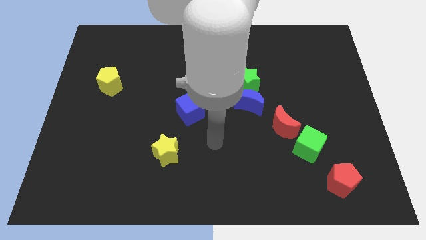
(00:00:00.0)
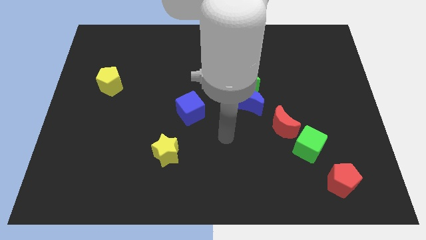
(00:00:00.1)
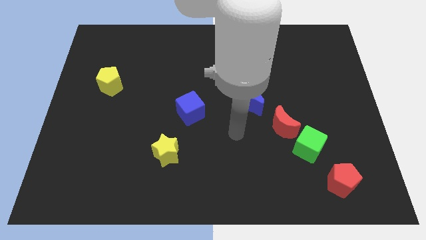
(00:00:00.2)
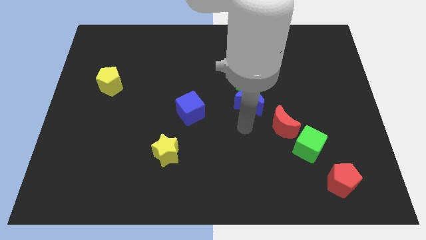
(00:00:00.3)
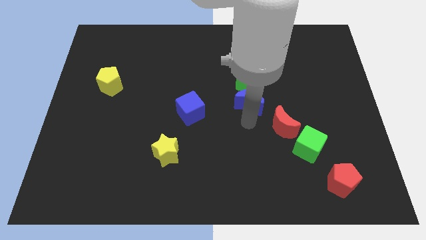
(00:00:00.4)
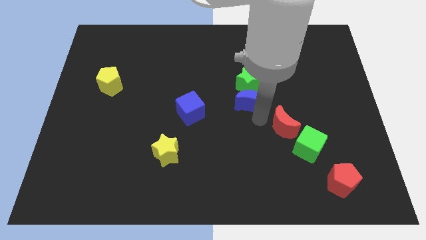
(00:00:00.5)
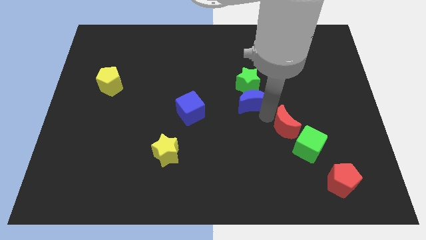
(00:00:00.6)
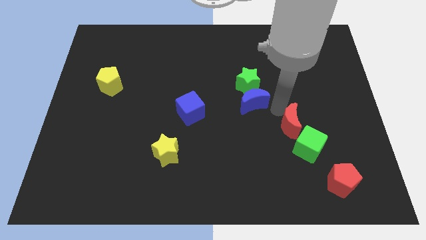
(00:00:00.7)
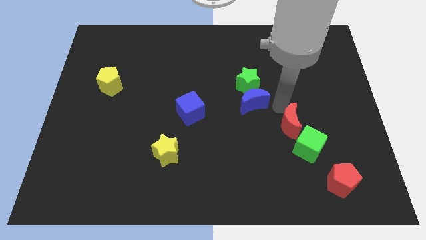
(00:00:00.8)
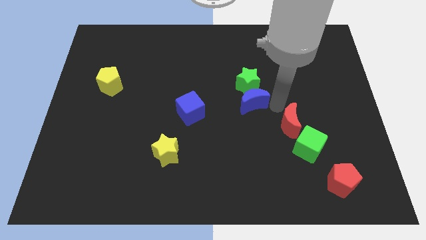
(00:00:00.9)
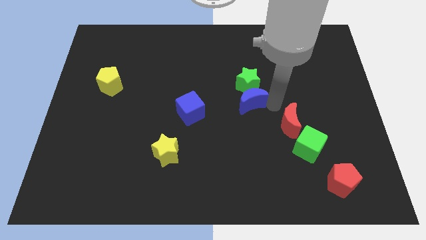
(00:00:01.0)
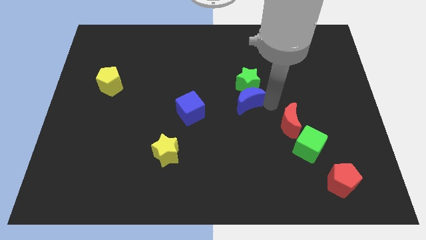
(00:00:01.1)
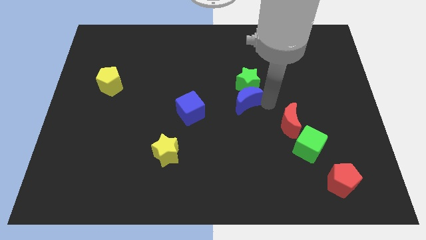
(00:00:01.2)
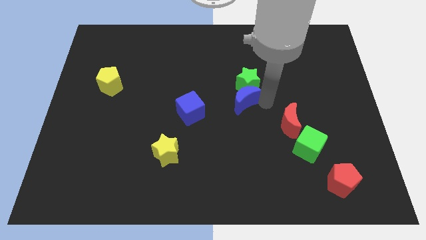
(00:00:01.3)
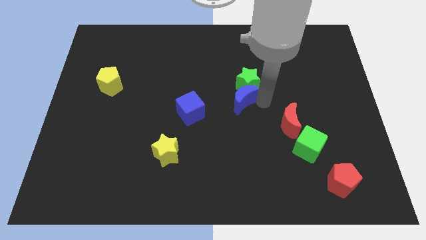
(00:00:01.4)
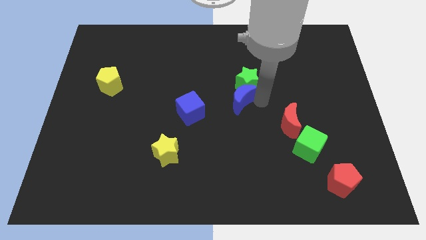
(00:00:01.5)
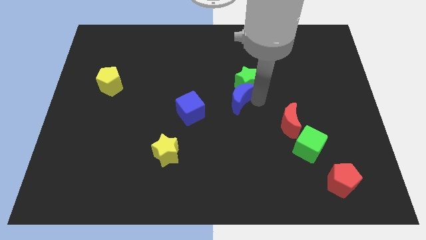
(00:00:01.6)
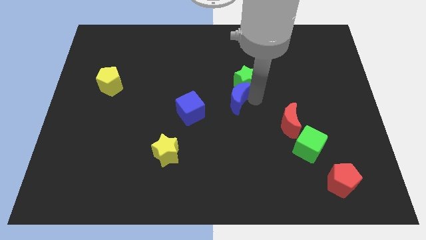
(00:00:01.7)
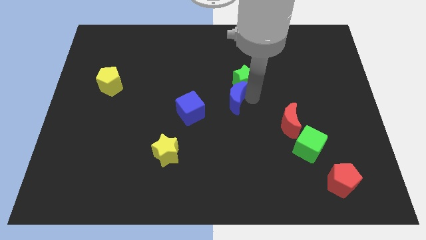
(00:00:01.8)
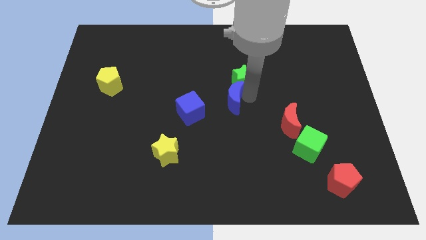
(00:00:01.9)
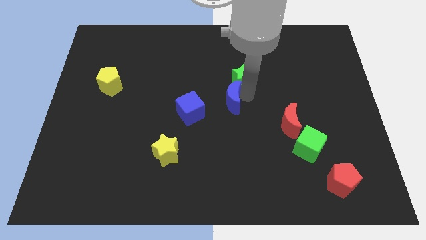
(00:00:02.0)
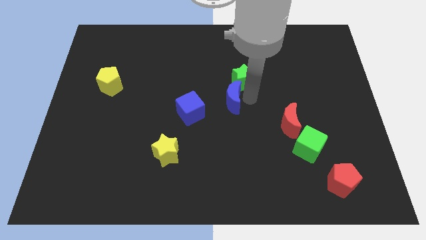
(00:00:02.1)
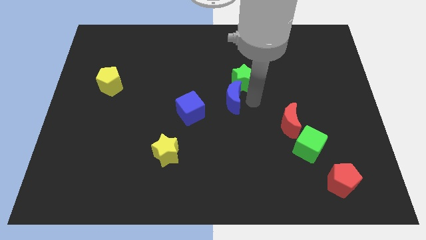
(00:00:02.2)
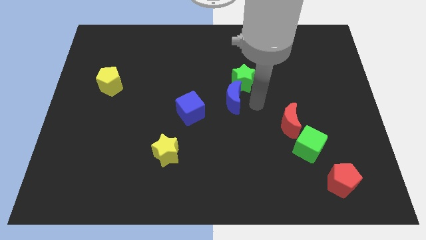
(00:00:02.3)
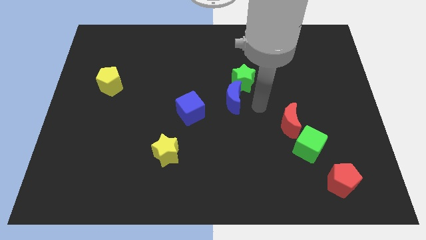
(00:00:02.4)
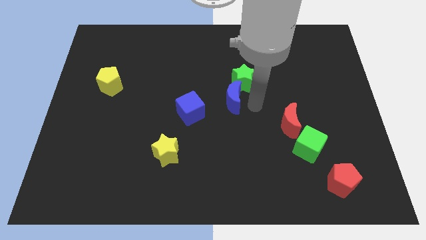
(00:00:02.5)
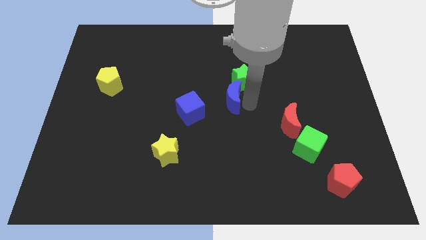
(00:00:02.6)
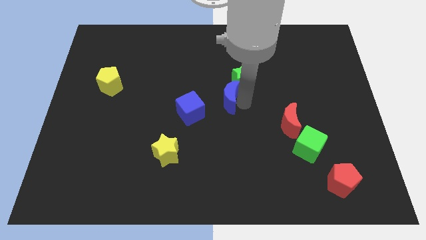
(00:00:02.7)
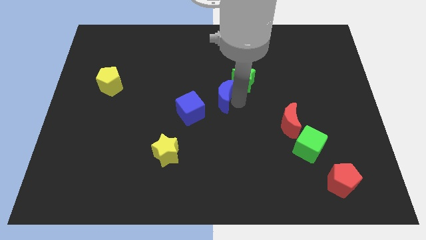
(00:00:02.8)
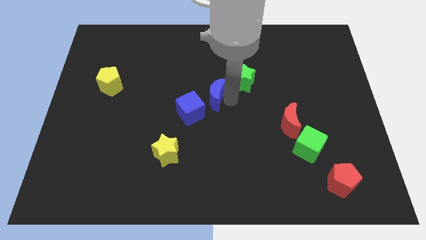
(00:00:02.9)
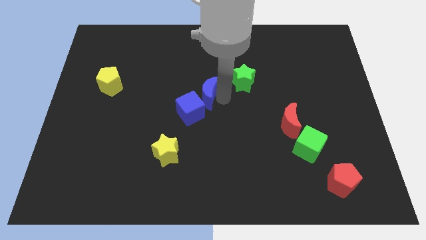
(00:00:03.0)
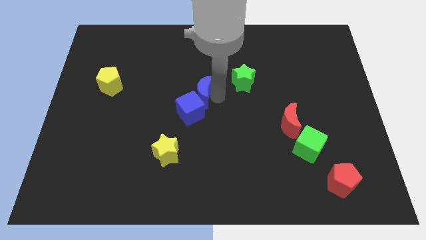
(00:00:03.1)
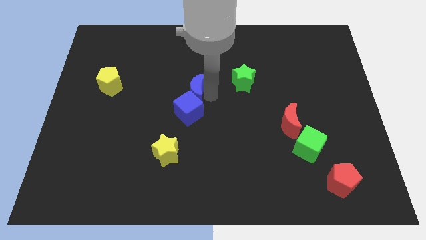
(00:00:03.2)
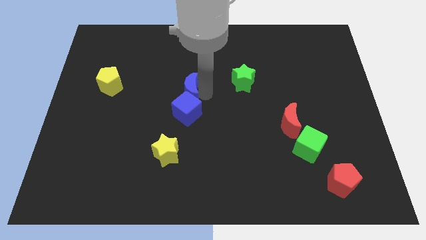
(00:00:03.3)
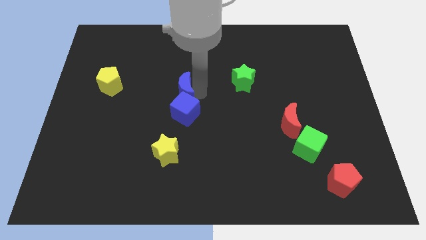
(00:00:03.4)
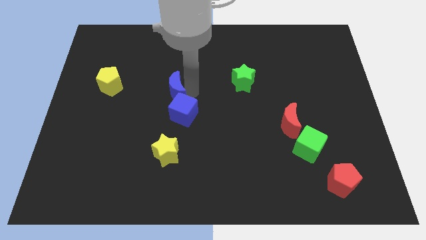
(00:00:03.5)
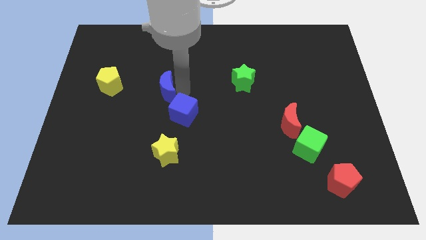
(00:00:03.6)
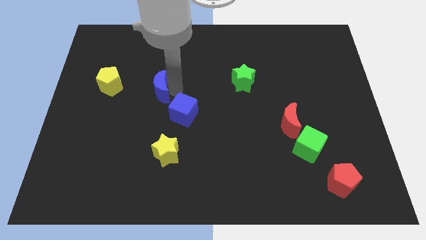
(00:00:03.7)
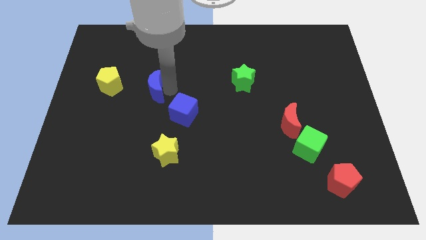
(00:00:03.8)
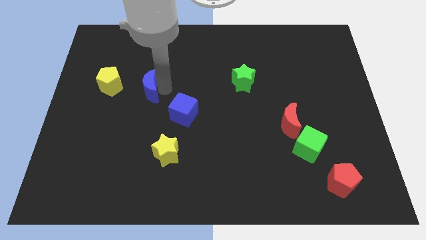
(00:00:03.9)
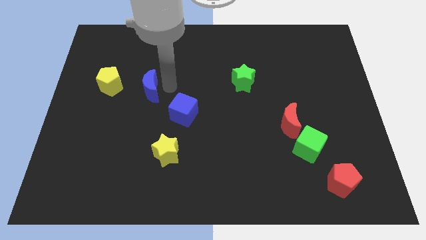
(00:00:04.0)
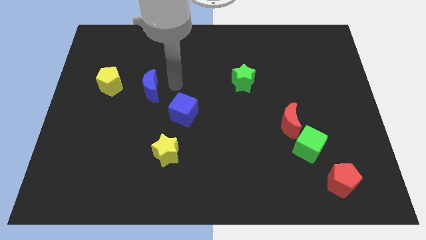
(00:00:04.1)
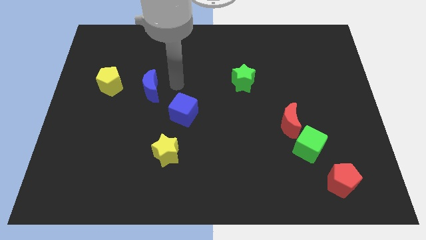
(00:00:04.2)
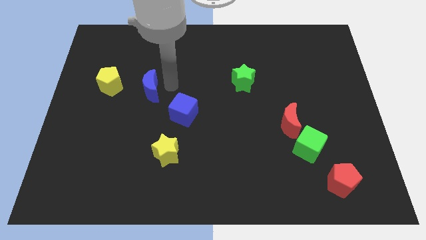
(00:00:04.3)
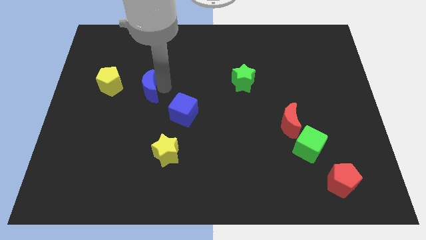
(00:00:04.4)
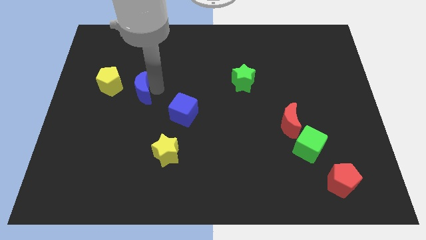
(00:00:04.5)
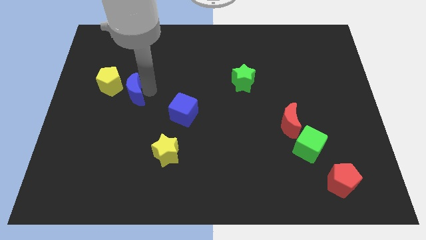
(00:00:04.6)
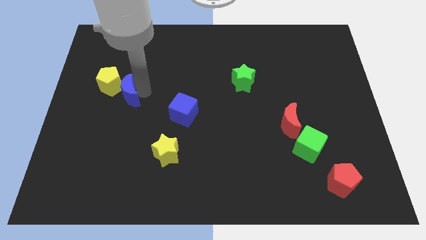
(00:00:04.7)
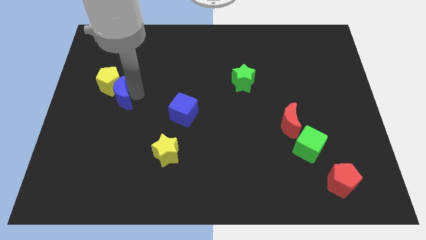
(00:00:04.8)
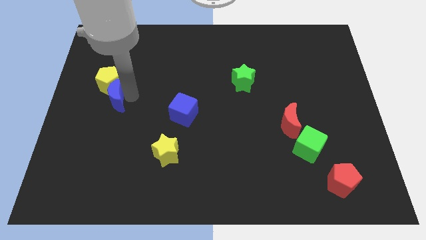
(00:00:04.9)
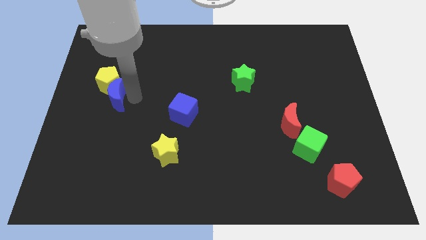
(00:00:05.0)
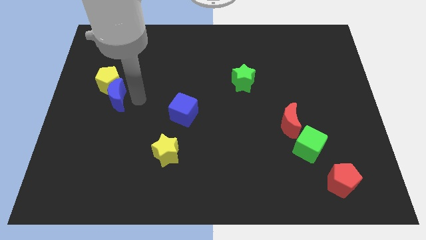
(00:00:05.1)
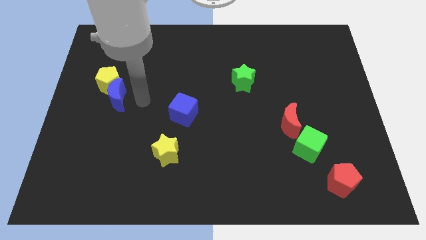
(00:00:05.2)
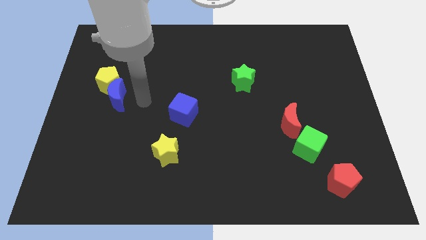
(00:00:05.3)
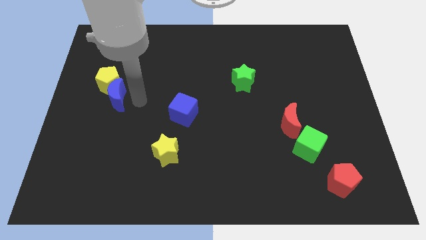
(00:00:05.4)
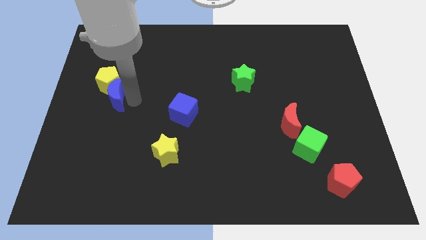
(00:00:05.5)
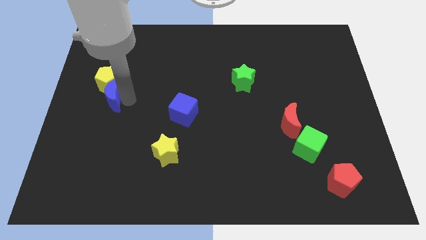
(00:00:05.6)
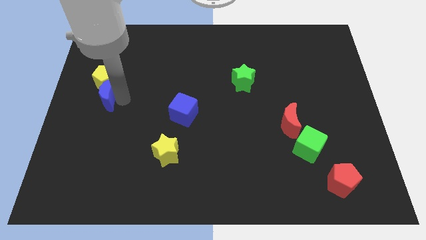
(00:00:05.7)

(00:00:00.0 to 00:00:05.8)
put the blue moon to the left side of the board
